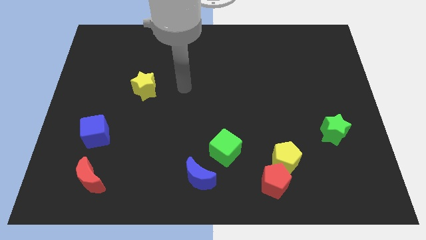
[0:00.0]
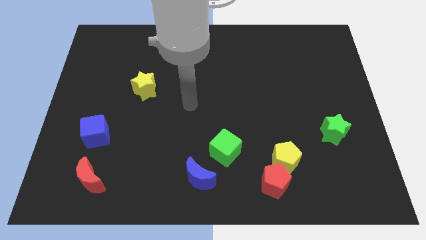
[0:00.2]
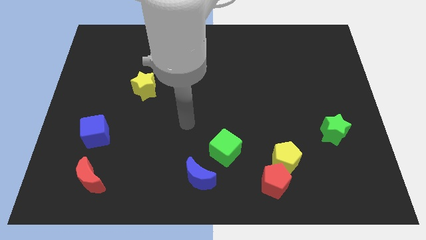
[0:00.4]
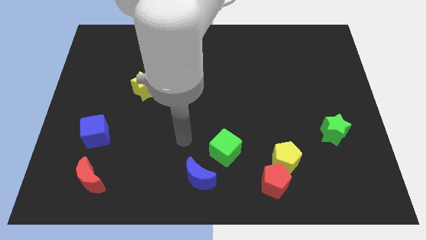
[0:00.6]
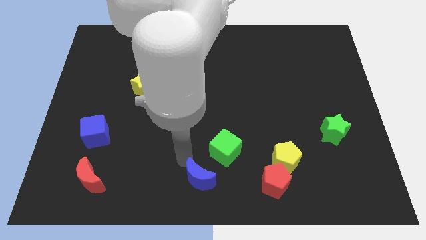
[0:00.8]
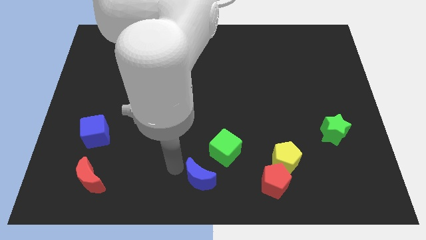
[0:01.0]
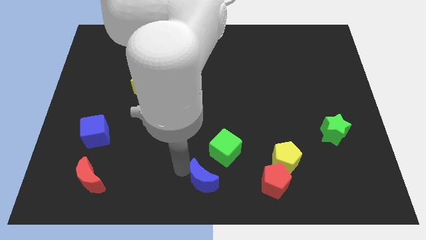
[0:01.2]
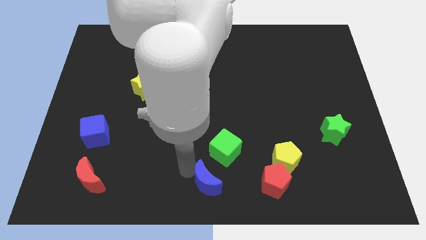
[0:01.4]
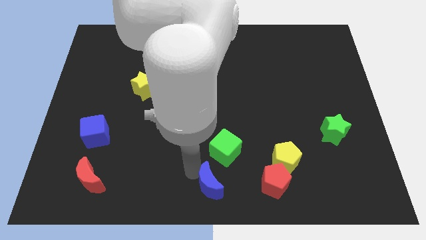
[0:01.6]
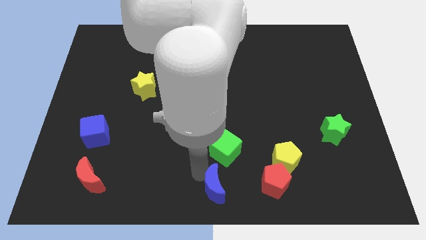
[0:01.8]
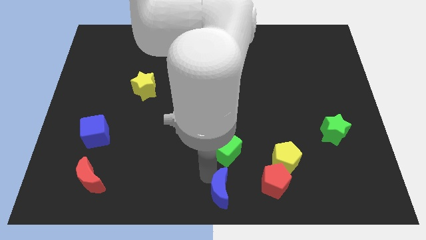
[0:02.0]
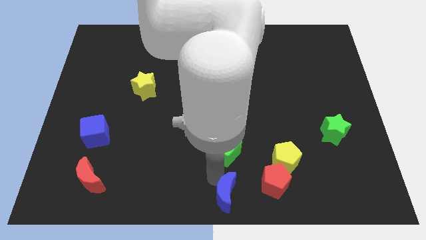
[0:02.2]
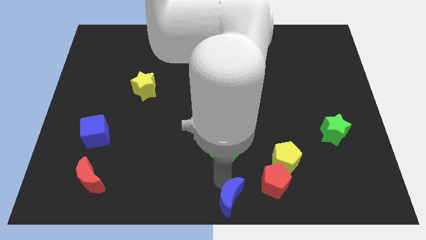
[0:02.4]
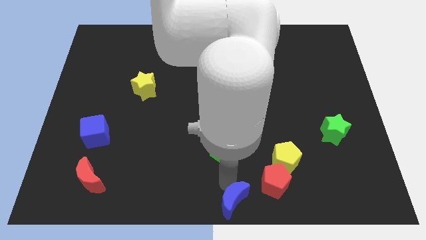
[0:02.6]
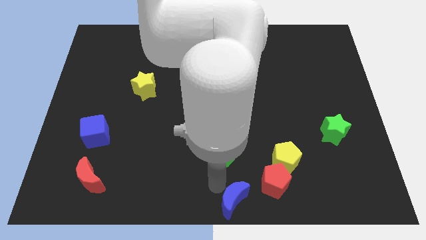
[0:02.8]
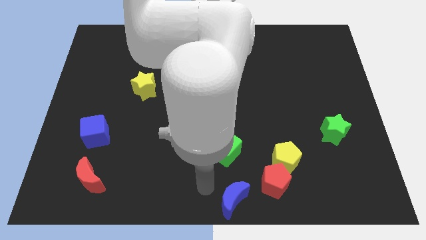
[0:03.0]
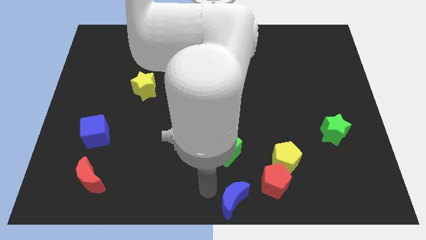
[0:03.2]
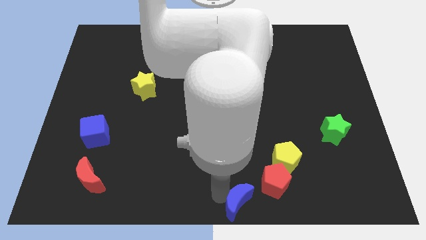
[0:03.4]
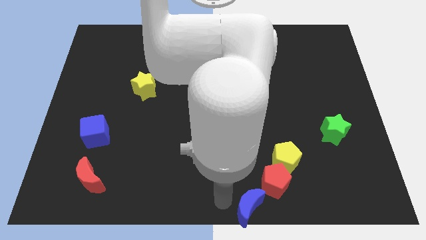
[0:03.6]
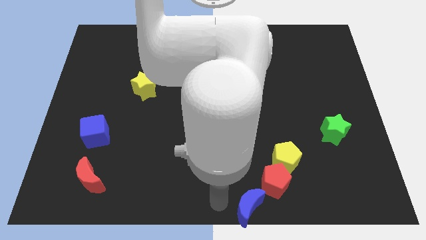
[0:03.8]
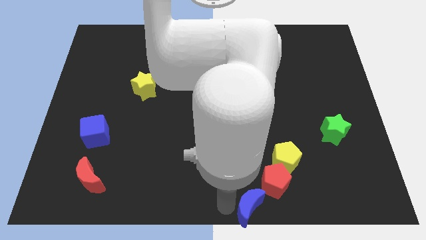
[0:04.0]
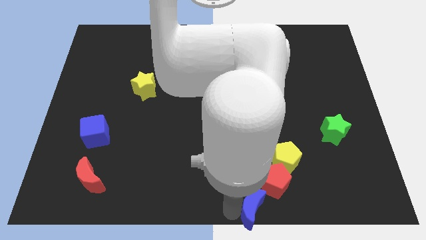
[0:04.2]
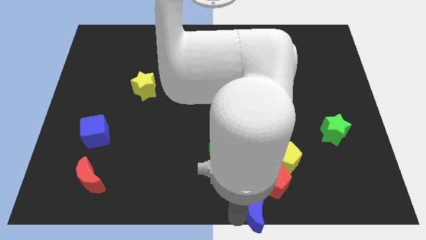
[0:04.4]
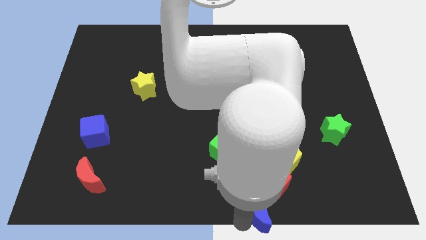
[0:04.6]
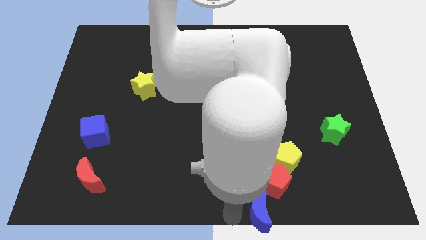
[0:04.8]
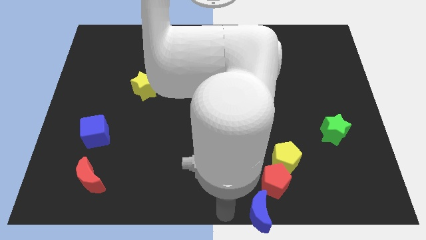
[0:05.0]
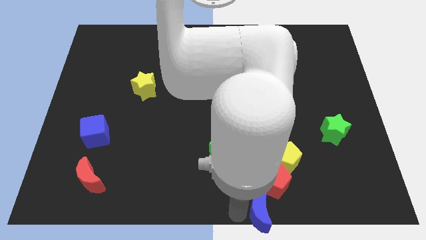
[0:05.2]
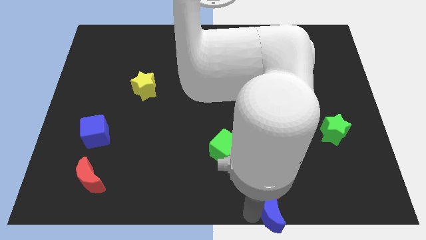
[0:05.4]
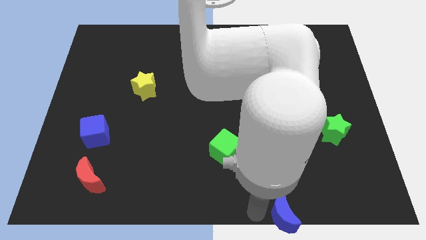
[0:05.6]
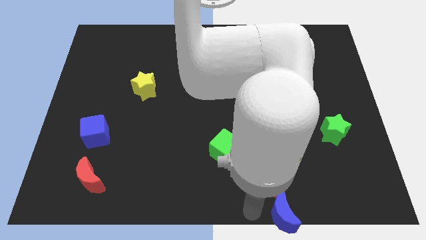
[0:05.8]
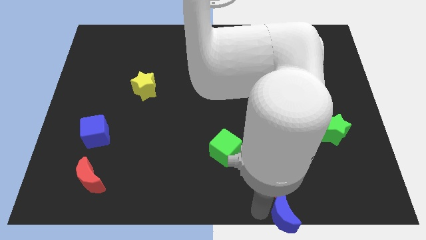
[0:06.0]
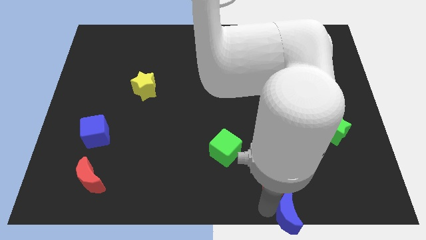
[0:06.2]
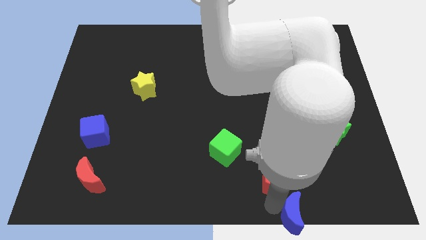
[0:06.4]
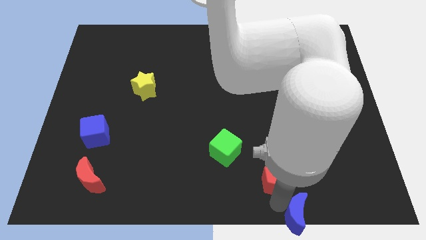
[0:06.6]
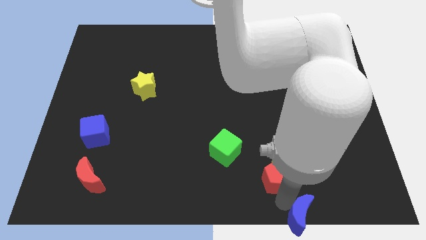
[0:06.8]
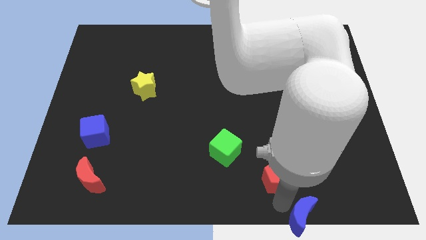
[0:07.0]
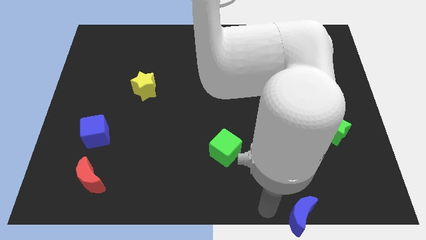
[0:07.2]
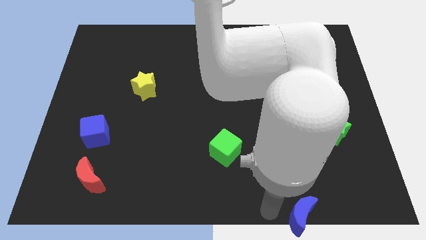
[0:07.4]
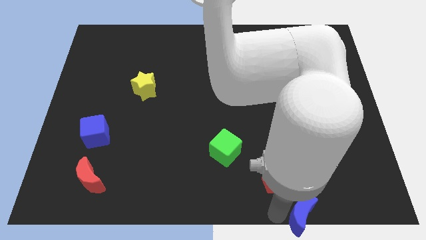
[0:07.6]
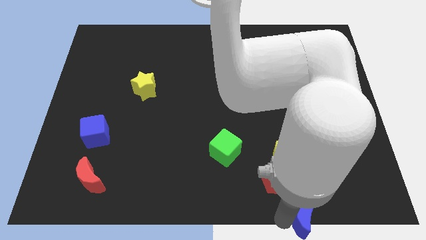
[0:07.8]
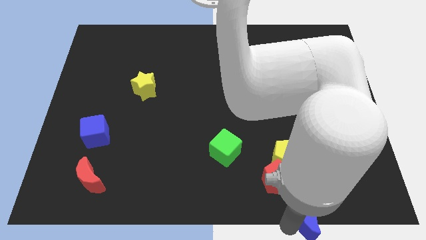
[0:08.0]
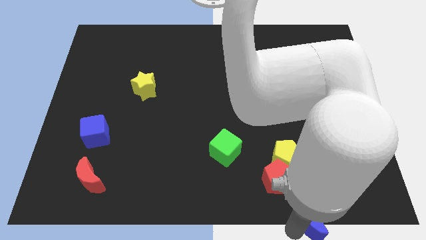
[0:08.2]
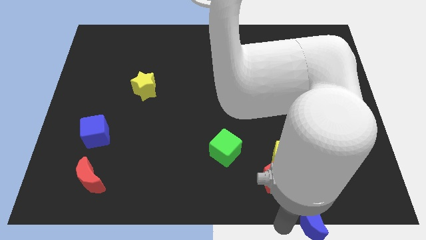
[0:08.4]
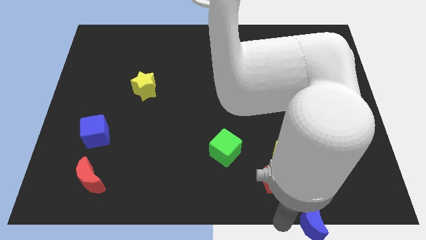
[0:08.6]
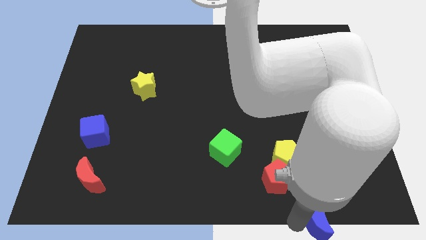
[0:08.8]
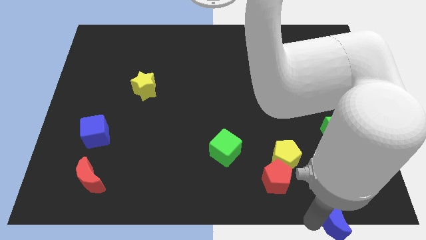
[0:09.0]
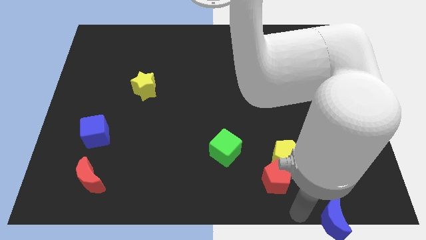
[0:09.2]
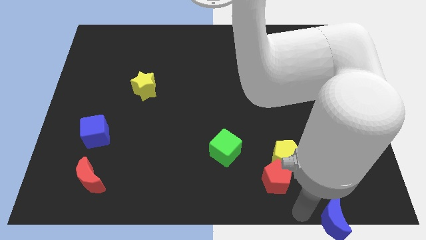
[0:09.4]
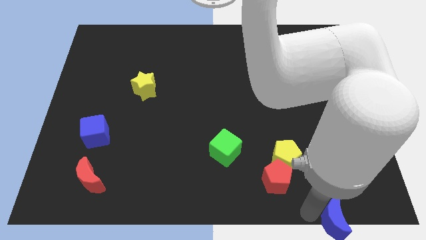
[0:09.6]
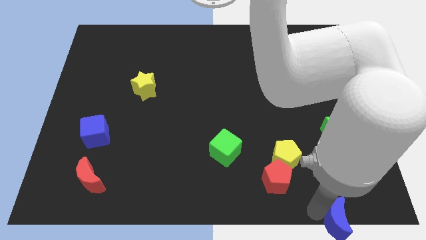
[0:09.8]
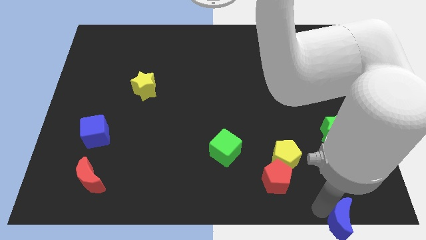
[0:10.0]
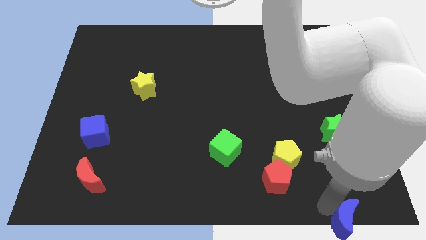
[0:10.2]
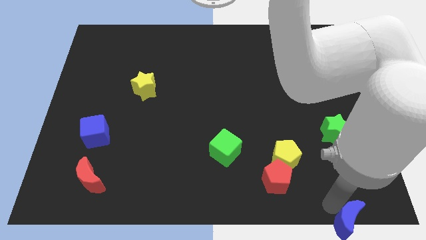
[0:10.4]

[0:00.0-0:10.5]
slide the blue moon to the lower right corner

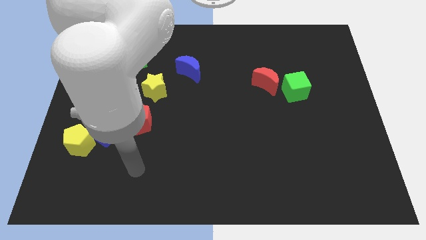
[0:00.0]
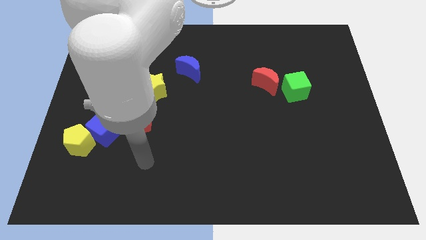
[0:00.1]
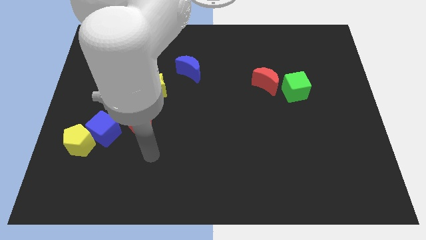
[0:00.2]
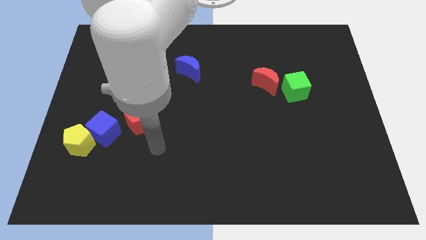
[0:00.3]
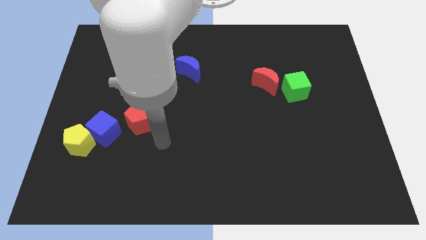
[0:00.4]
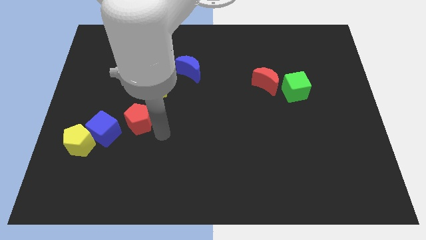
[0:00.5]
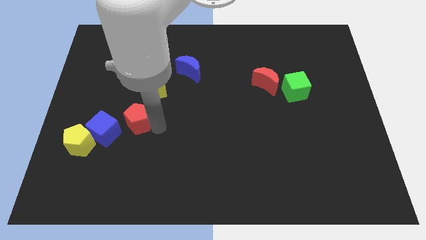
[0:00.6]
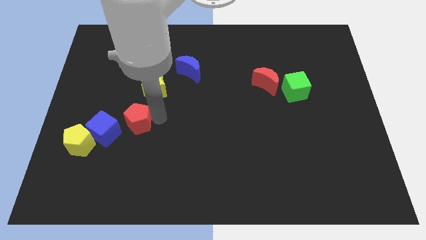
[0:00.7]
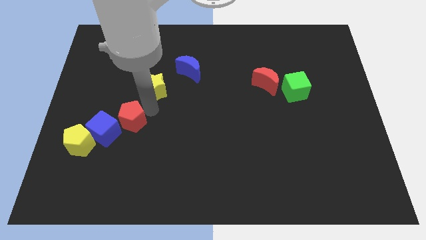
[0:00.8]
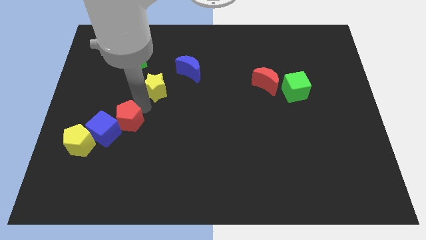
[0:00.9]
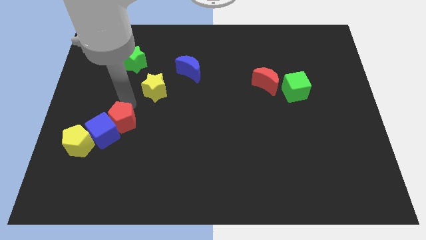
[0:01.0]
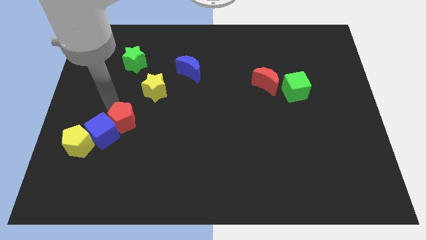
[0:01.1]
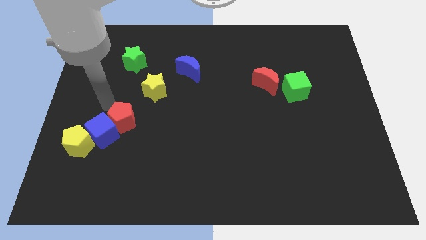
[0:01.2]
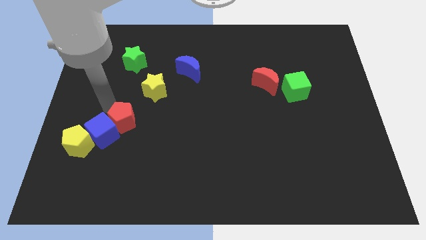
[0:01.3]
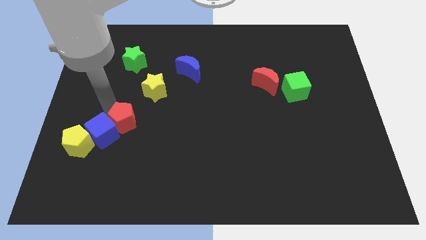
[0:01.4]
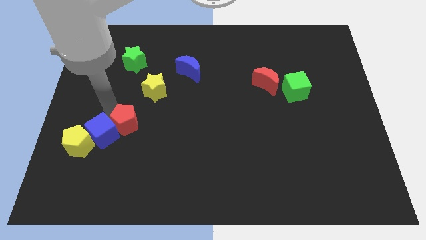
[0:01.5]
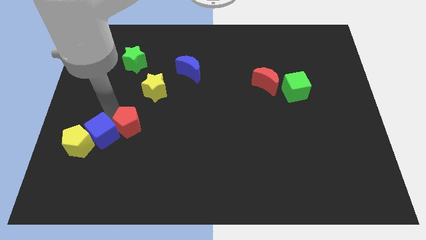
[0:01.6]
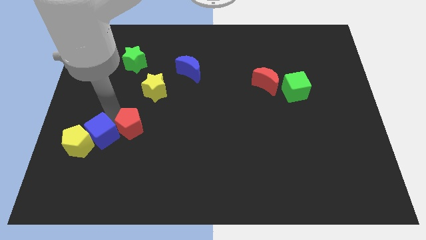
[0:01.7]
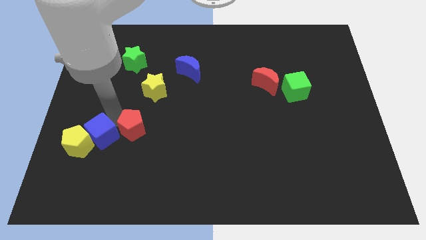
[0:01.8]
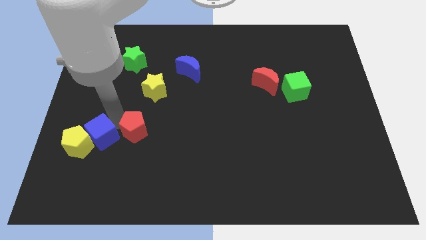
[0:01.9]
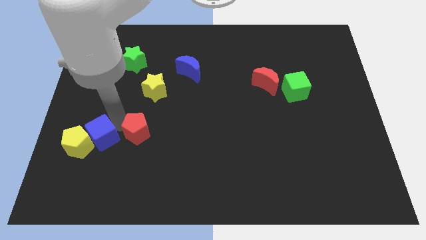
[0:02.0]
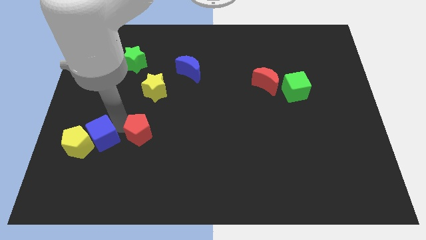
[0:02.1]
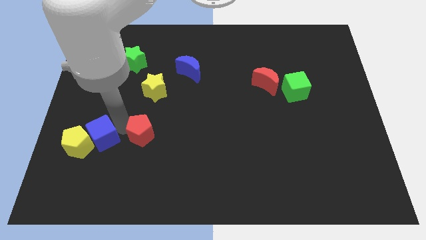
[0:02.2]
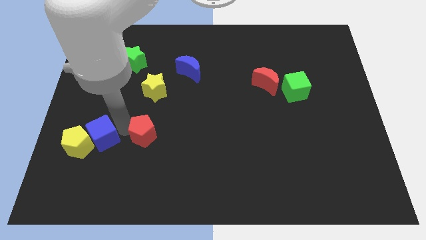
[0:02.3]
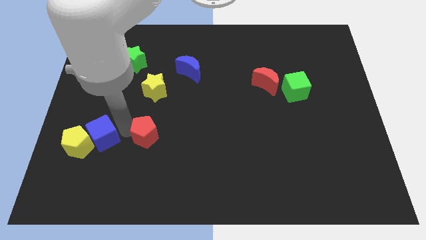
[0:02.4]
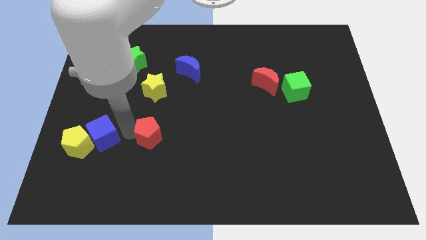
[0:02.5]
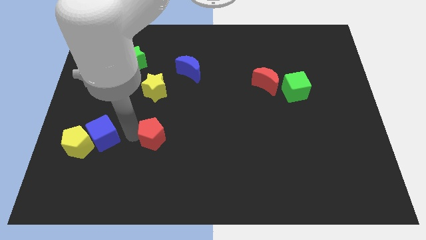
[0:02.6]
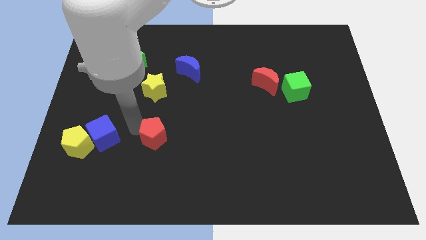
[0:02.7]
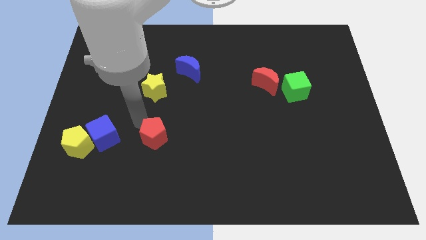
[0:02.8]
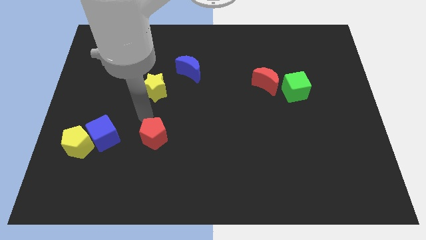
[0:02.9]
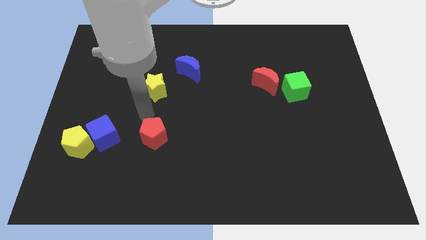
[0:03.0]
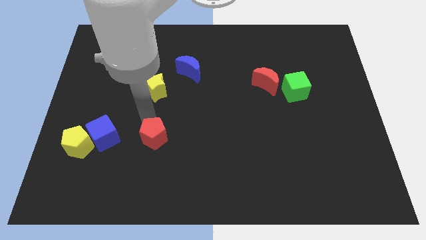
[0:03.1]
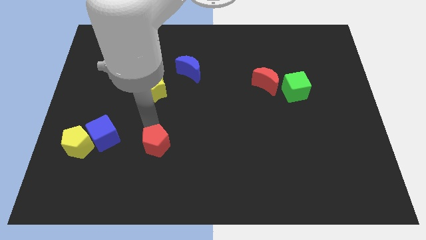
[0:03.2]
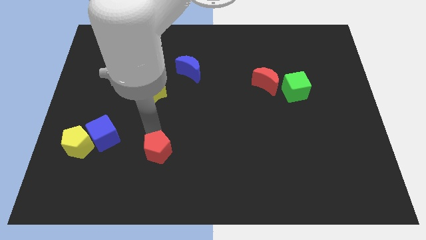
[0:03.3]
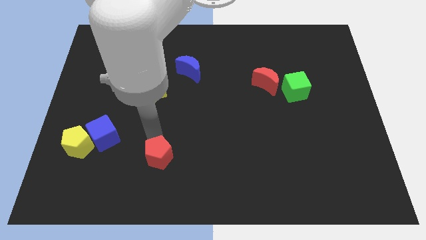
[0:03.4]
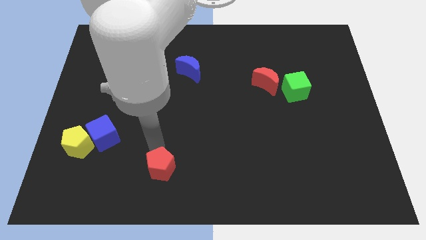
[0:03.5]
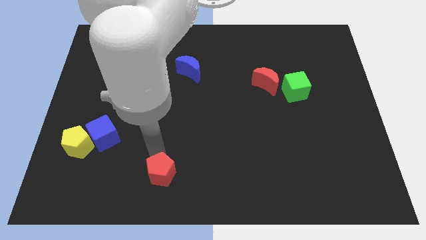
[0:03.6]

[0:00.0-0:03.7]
put the red pentagon to the bottom
